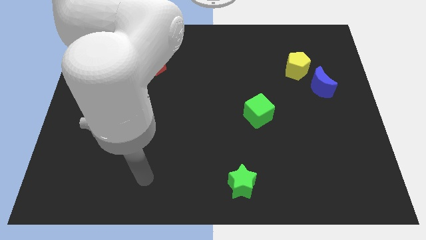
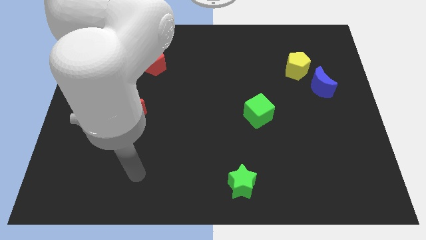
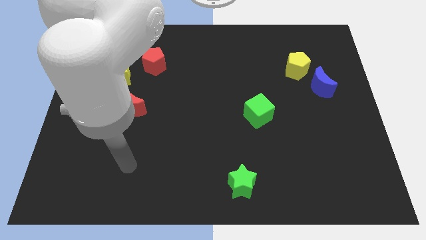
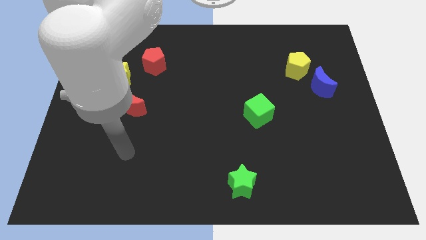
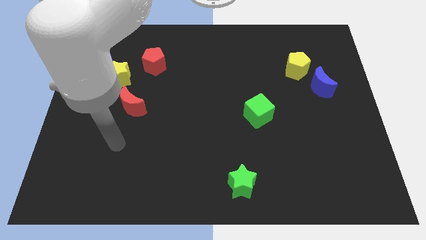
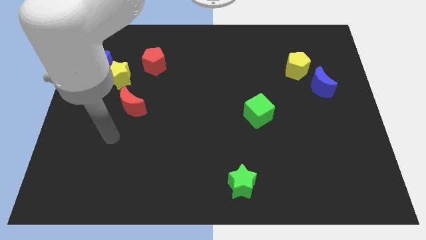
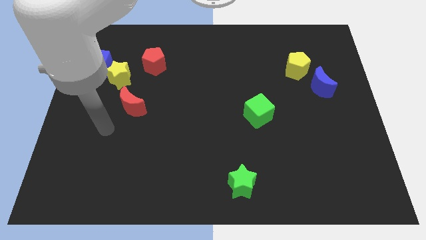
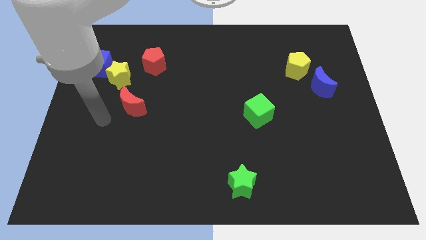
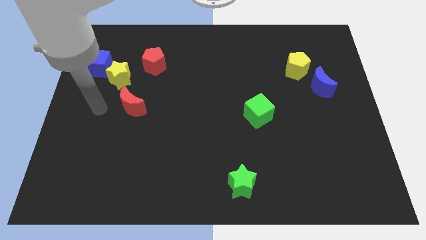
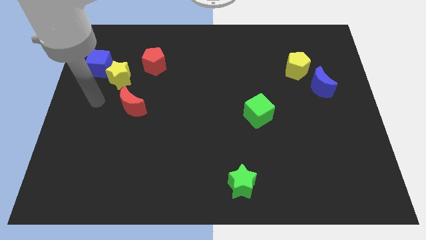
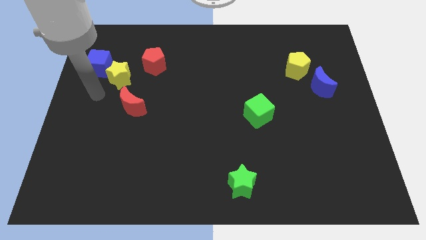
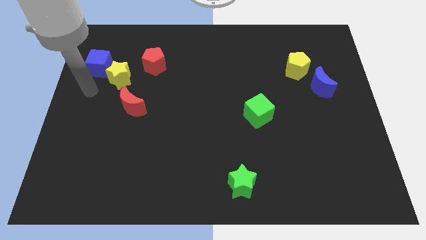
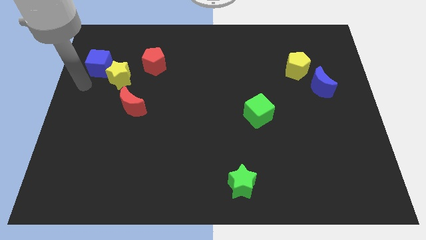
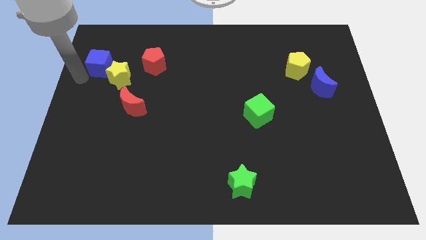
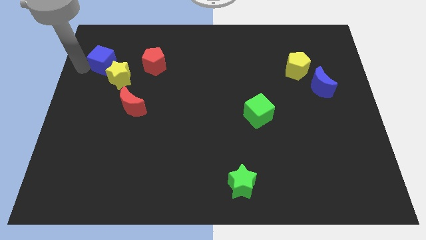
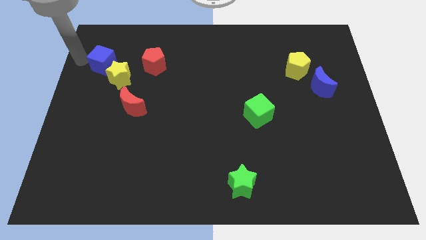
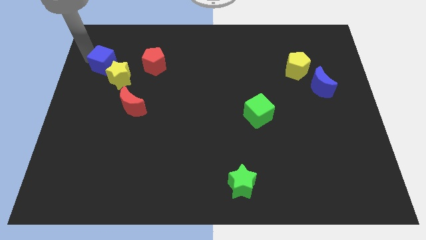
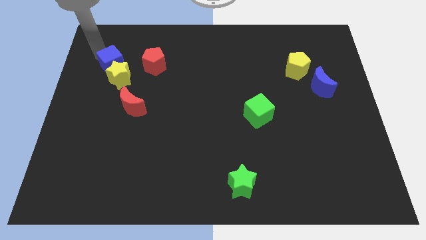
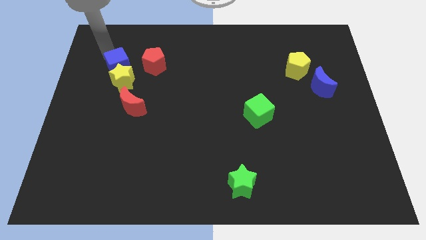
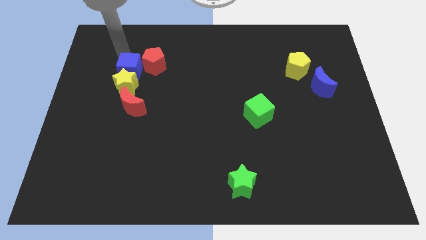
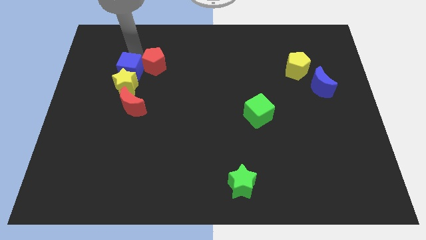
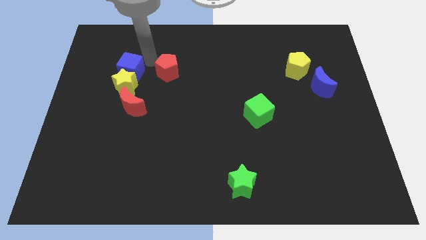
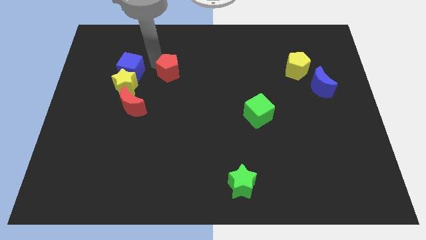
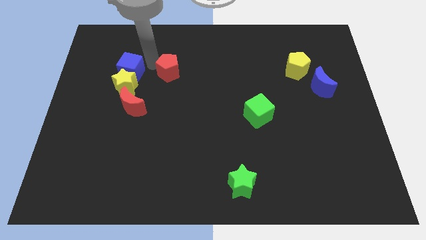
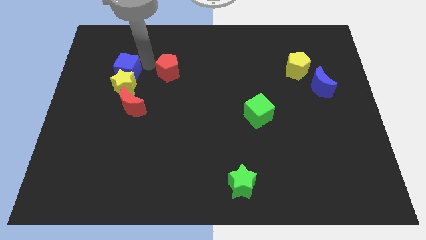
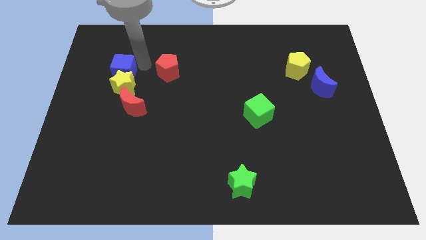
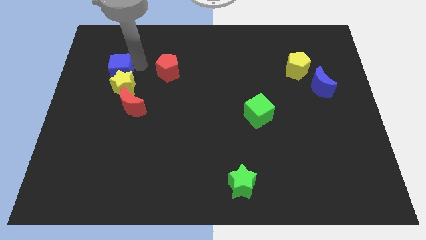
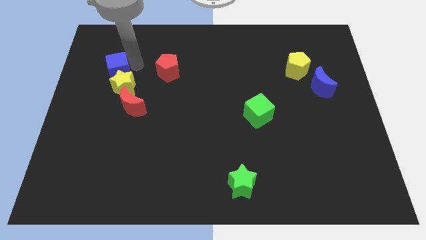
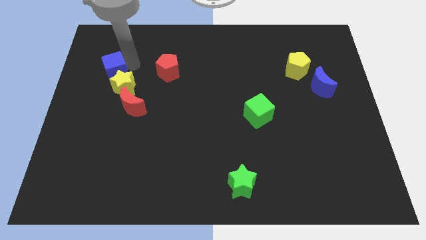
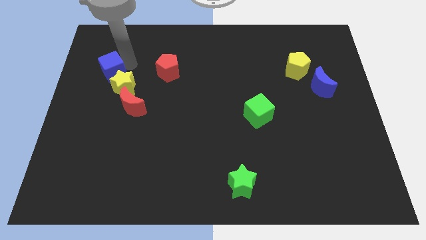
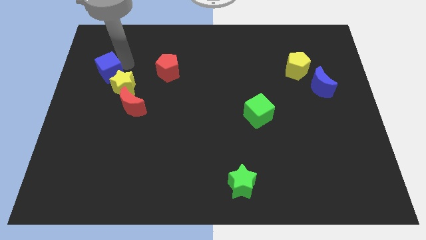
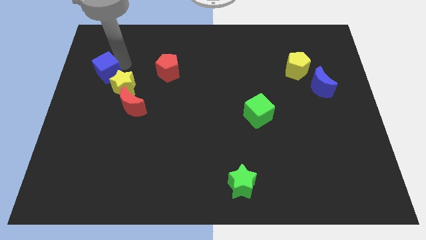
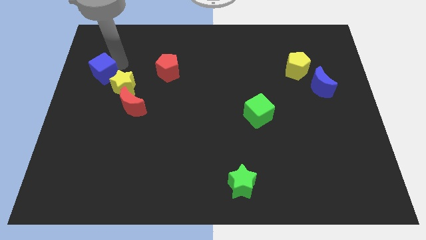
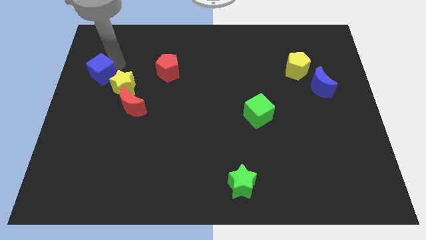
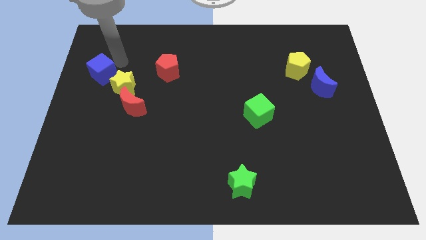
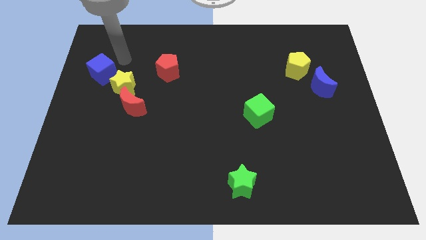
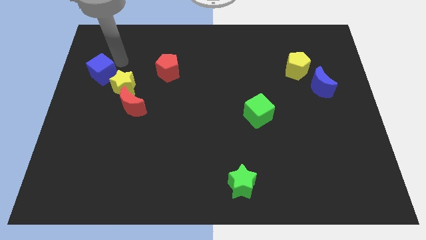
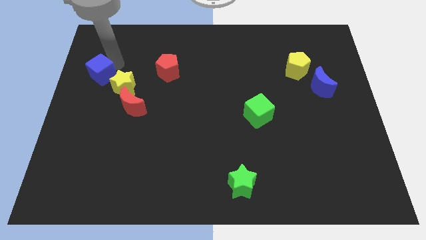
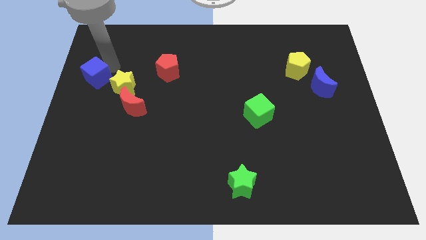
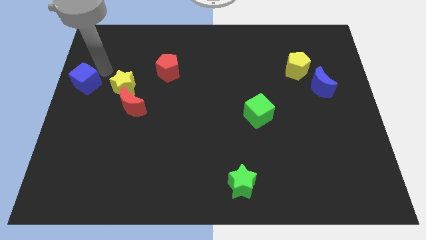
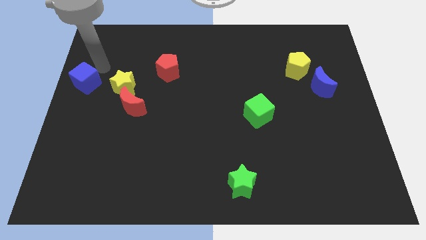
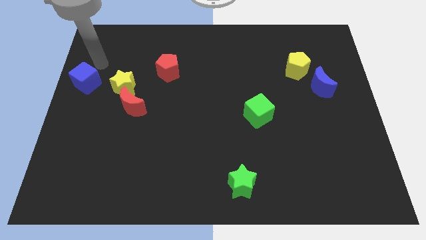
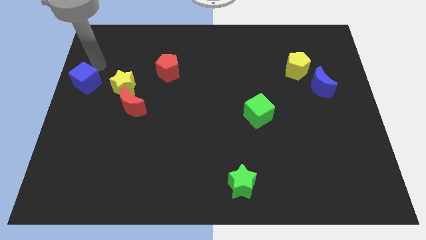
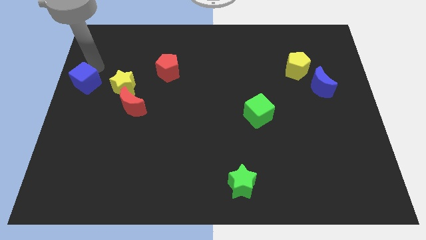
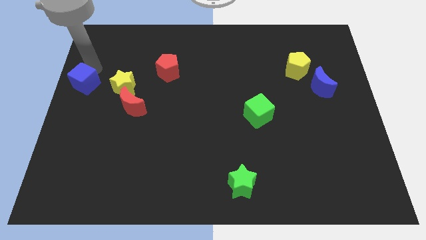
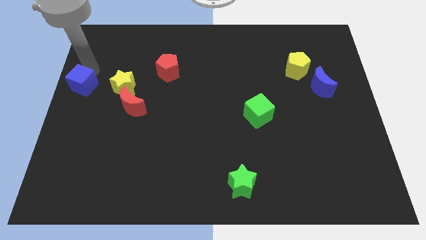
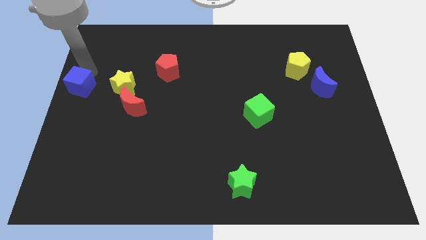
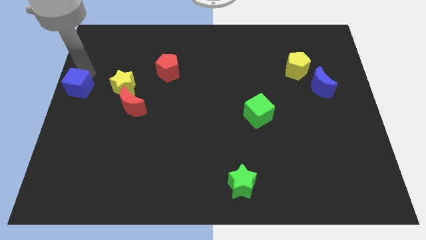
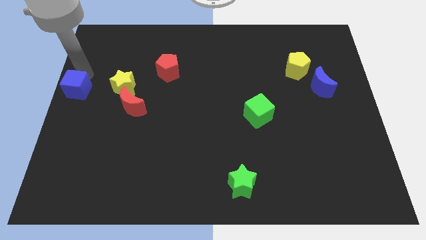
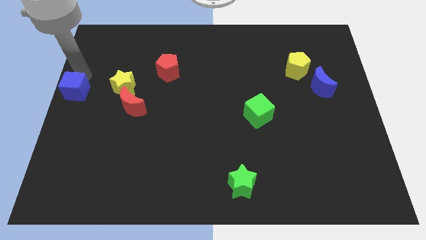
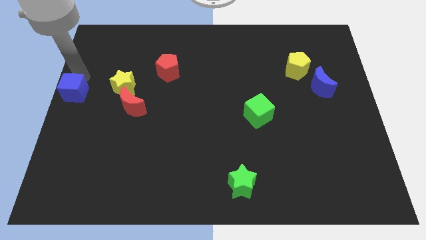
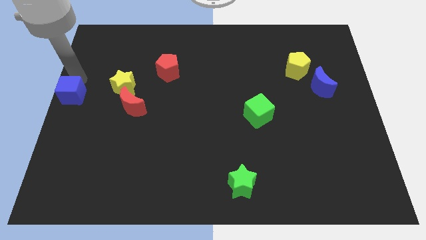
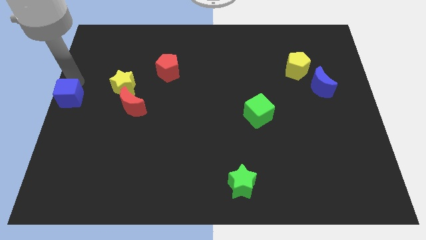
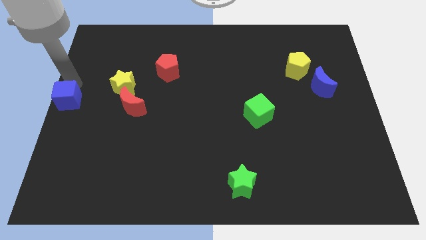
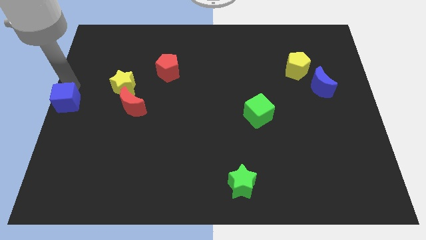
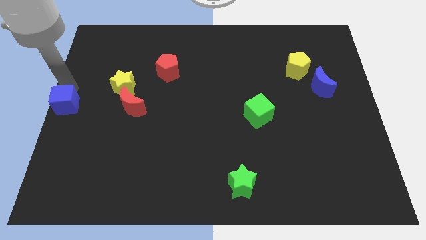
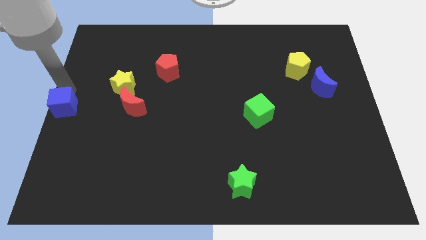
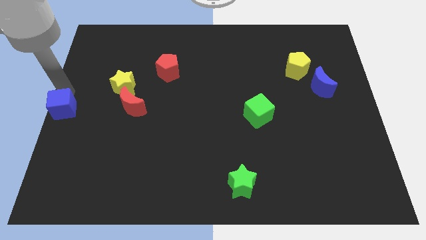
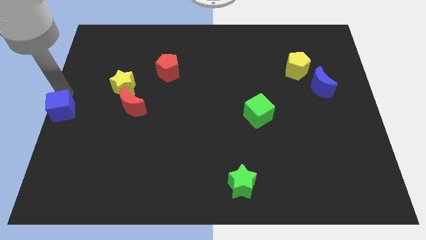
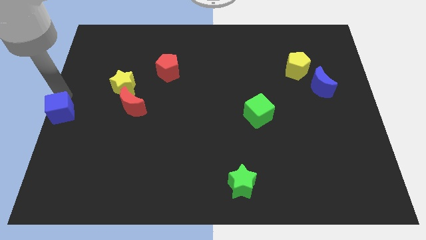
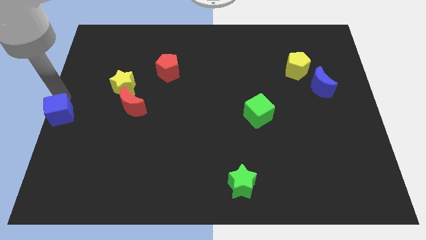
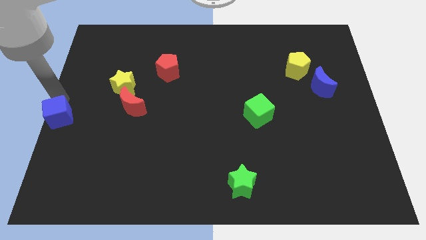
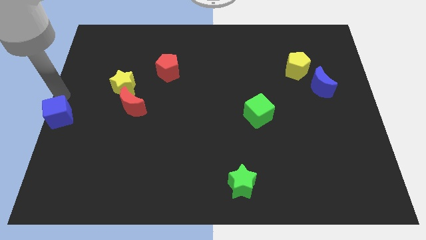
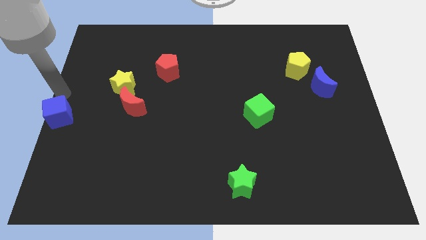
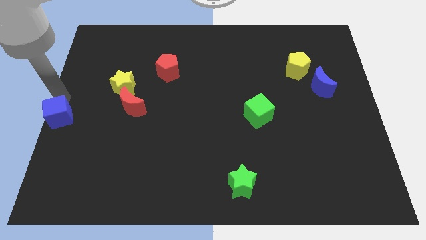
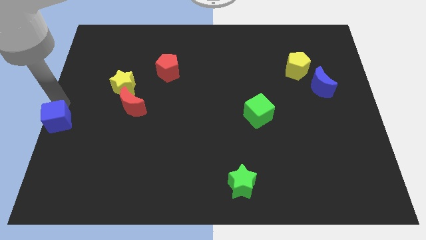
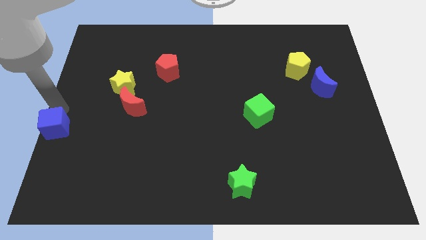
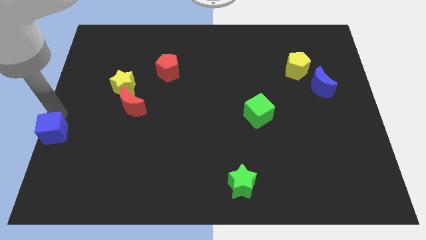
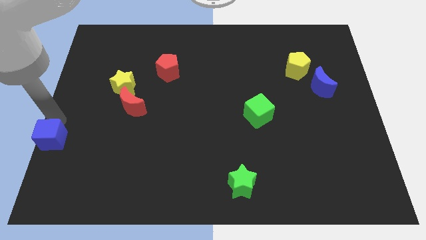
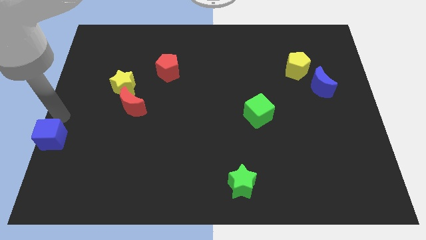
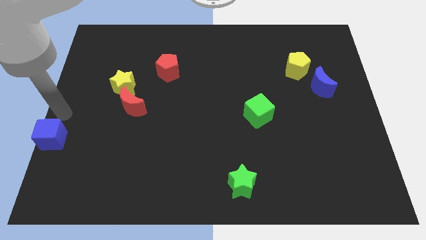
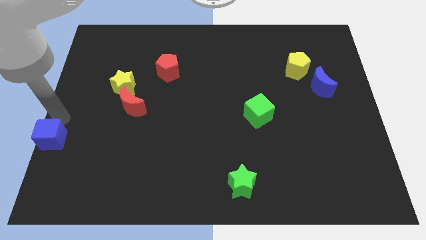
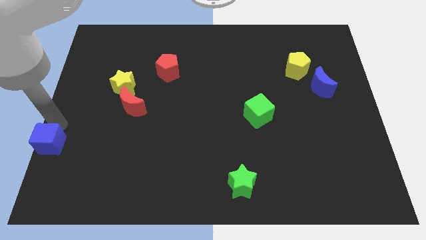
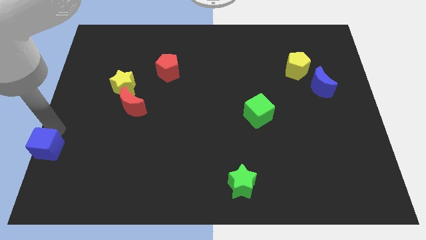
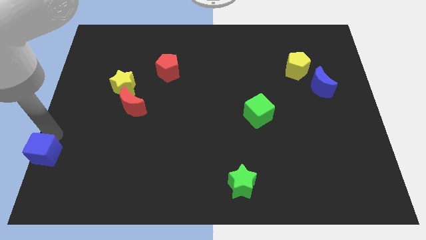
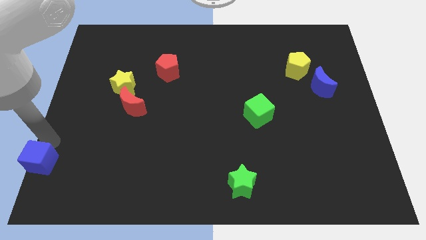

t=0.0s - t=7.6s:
put the blue cube to the bottom left
